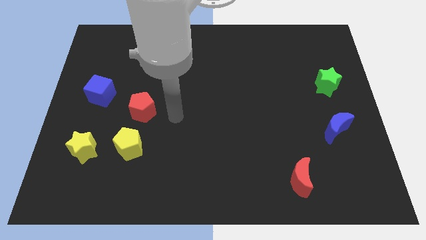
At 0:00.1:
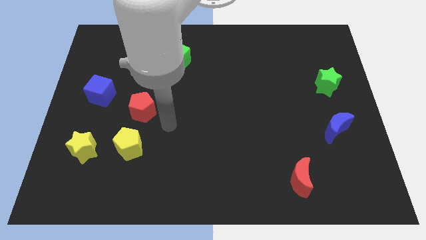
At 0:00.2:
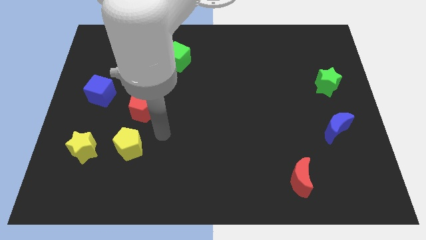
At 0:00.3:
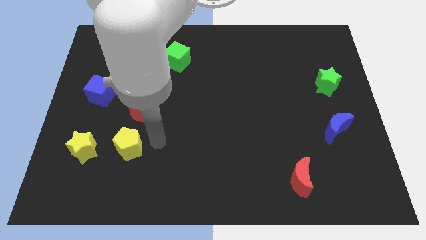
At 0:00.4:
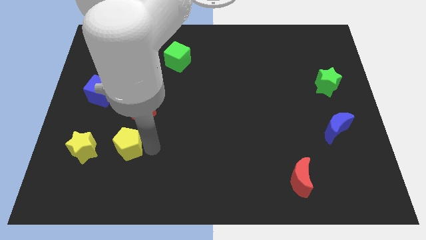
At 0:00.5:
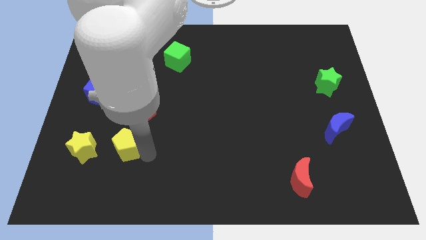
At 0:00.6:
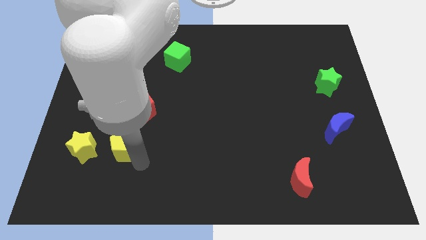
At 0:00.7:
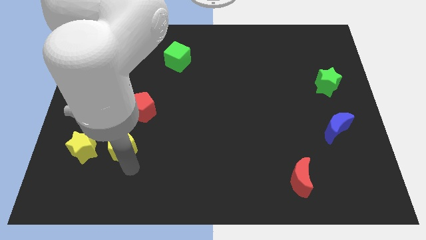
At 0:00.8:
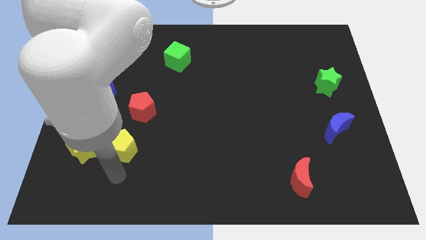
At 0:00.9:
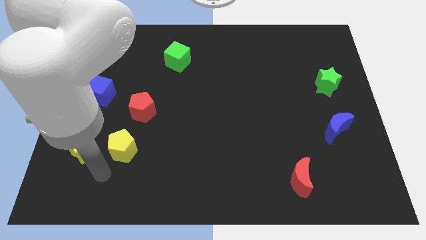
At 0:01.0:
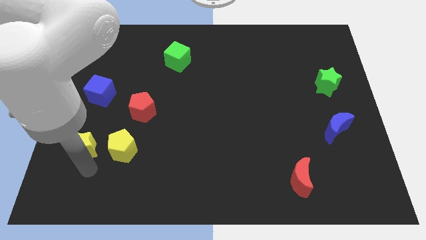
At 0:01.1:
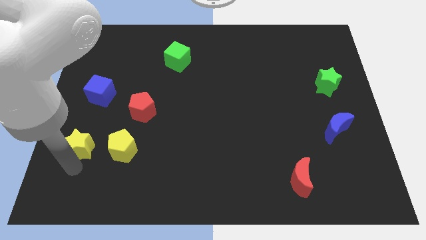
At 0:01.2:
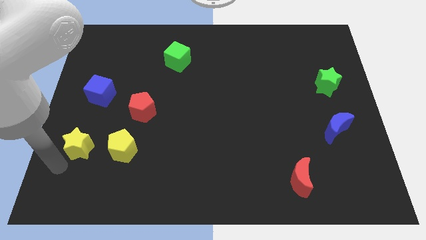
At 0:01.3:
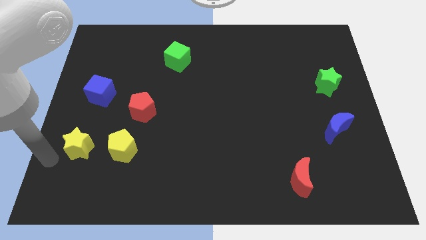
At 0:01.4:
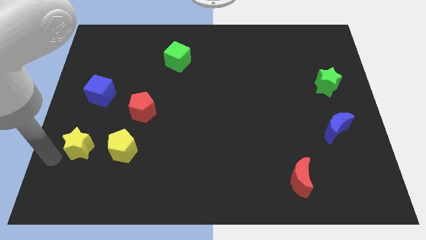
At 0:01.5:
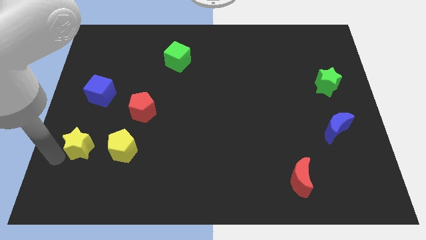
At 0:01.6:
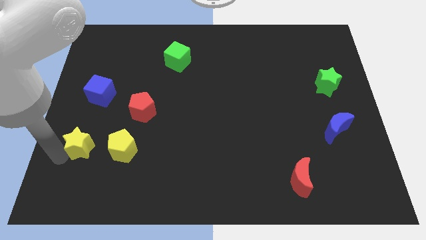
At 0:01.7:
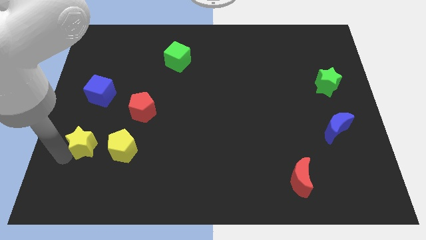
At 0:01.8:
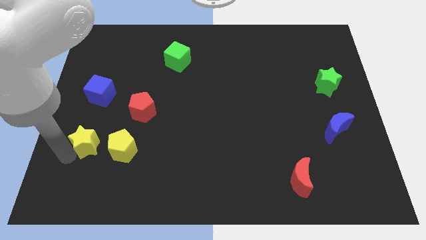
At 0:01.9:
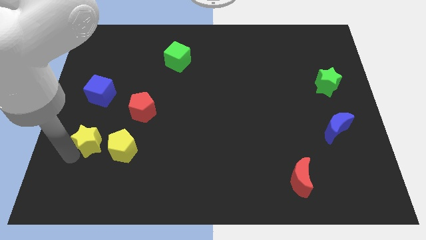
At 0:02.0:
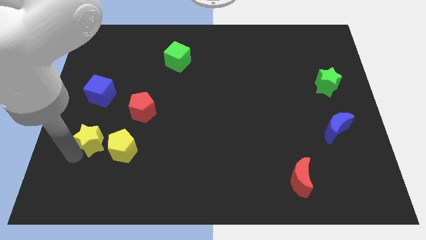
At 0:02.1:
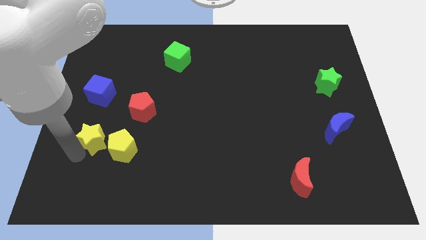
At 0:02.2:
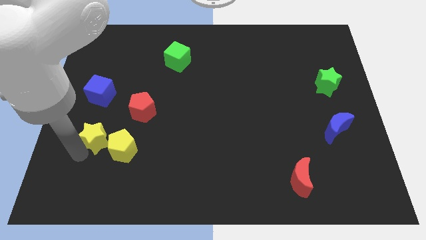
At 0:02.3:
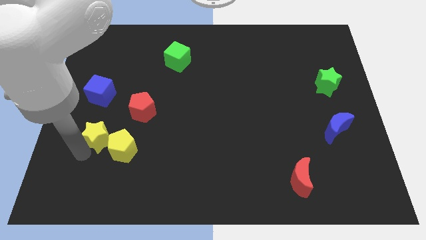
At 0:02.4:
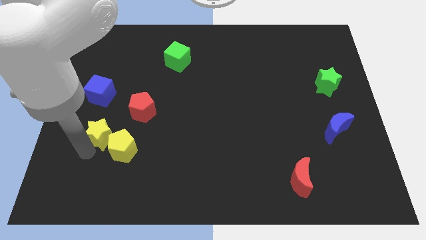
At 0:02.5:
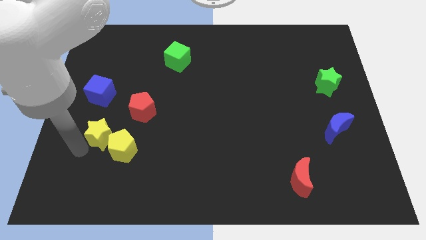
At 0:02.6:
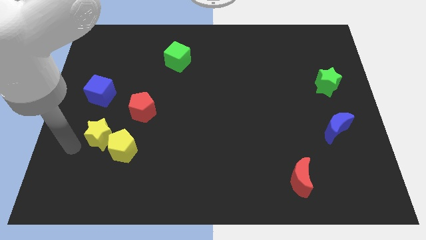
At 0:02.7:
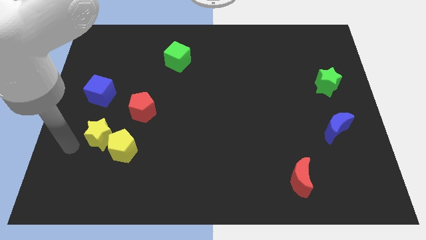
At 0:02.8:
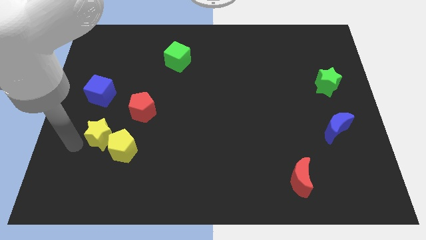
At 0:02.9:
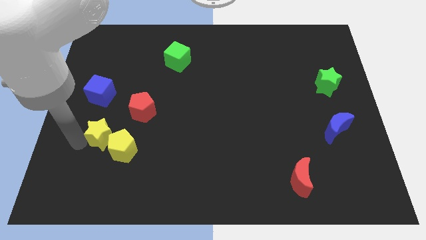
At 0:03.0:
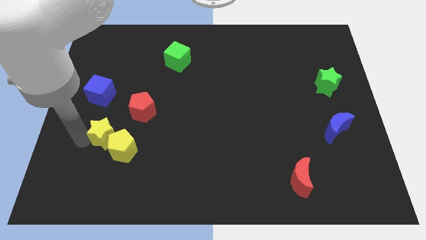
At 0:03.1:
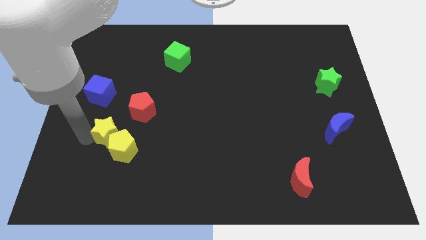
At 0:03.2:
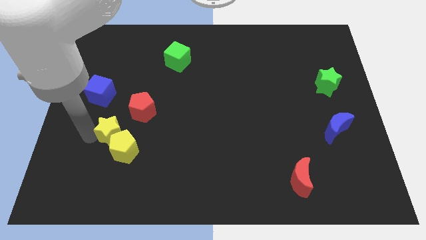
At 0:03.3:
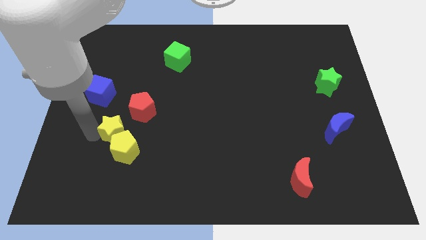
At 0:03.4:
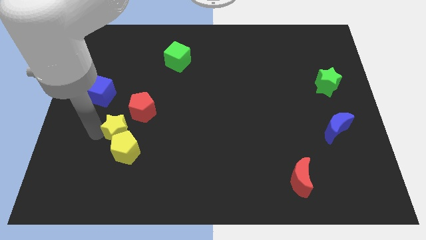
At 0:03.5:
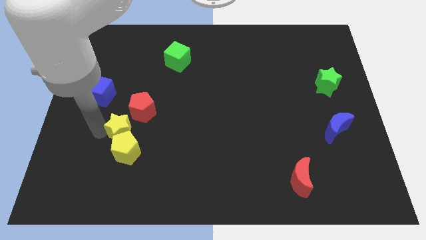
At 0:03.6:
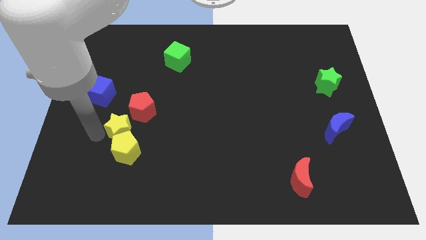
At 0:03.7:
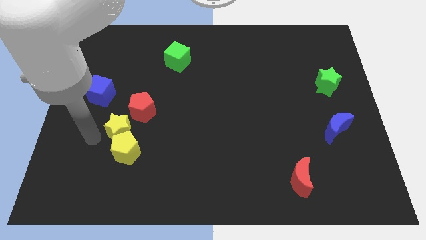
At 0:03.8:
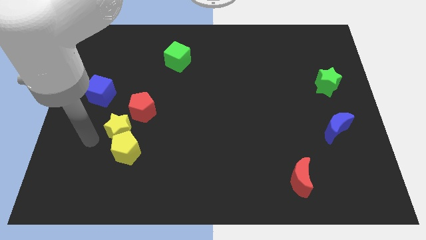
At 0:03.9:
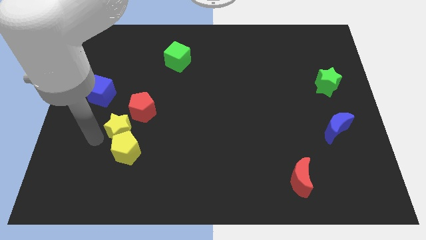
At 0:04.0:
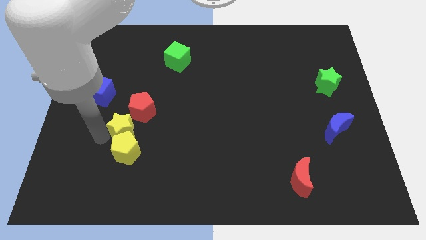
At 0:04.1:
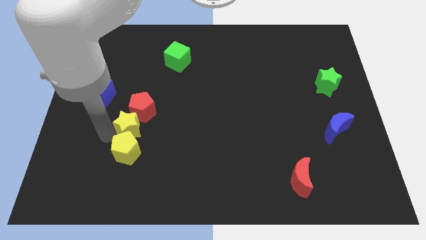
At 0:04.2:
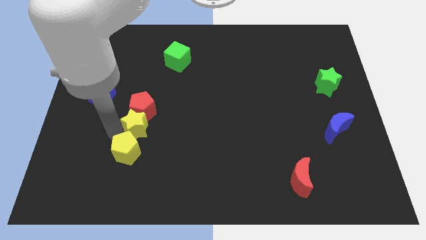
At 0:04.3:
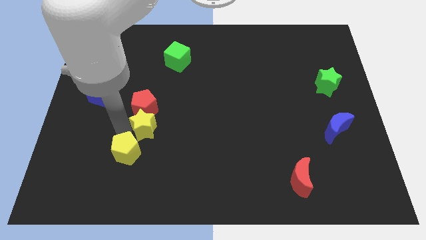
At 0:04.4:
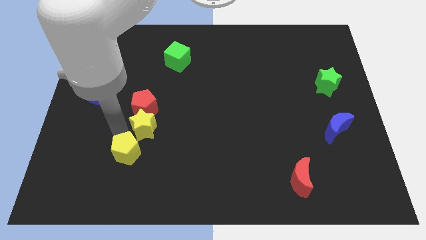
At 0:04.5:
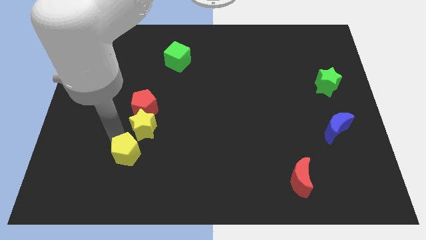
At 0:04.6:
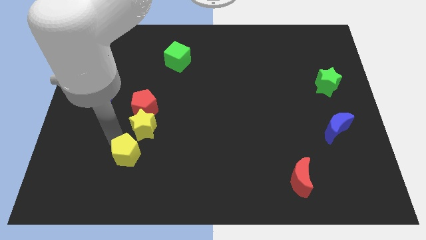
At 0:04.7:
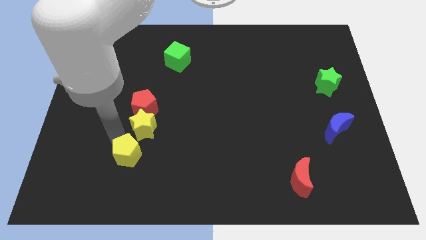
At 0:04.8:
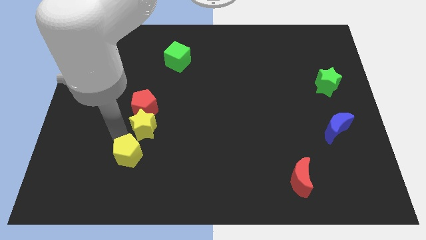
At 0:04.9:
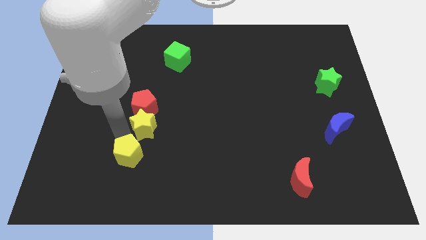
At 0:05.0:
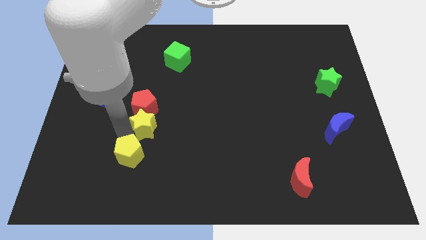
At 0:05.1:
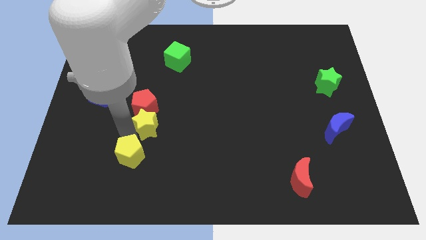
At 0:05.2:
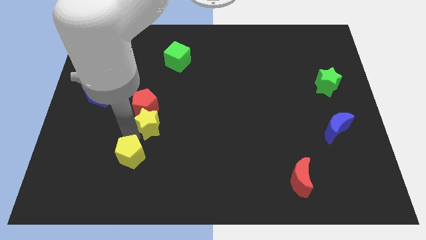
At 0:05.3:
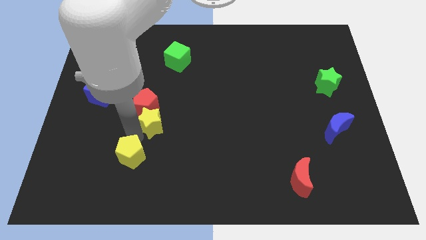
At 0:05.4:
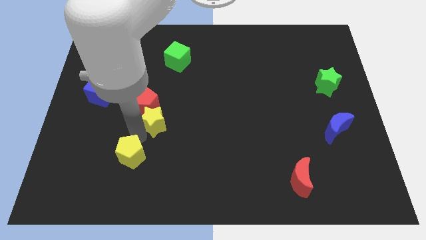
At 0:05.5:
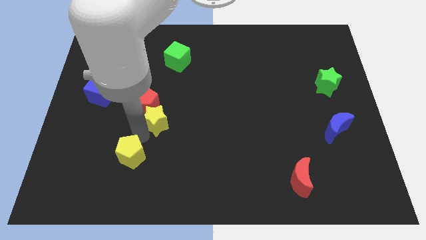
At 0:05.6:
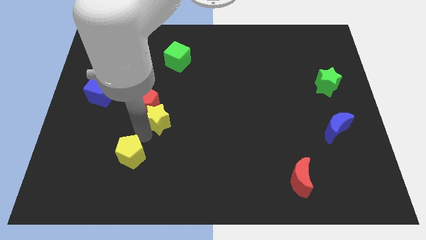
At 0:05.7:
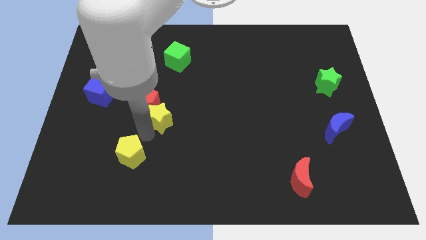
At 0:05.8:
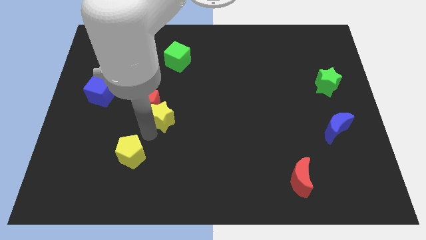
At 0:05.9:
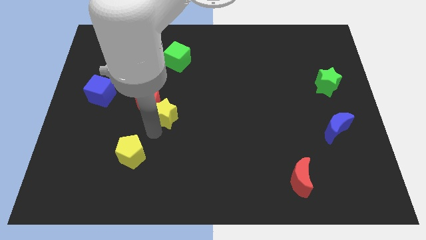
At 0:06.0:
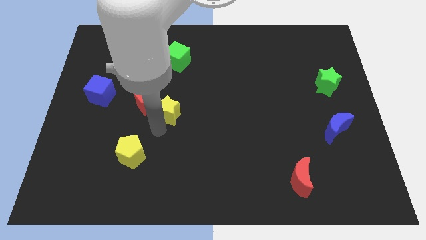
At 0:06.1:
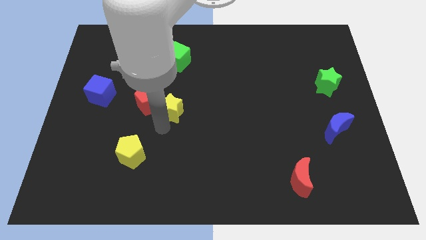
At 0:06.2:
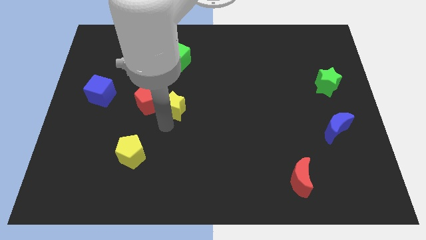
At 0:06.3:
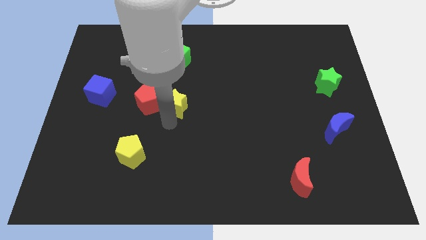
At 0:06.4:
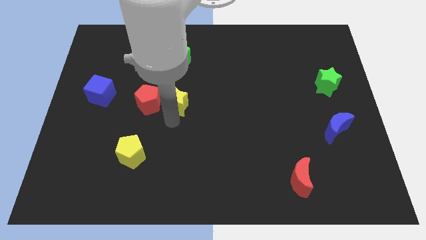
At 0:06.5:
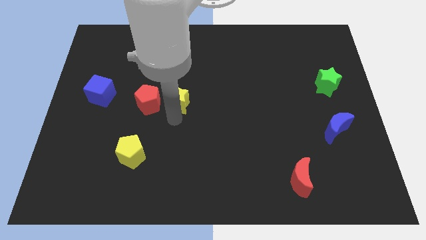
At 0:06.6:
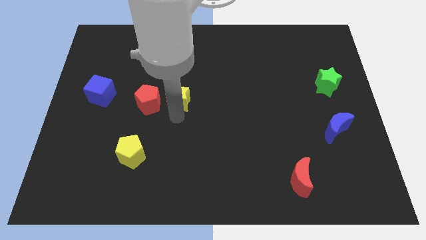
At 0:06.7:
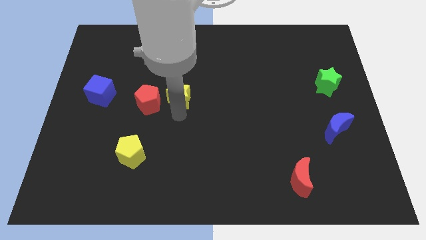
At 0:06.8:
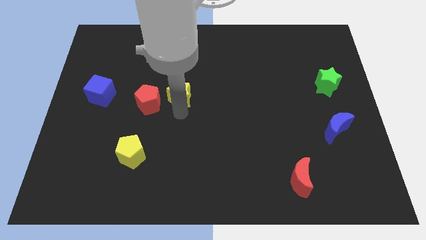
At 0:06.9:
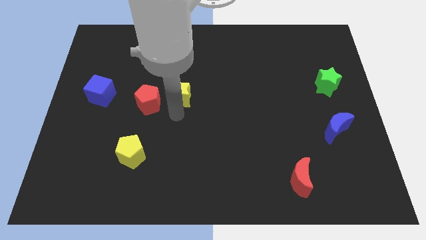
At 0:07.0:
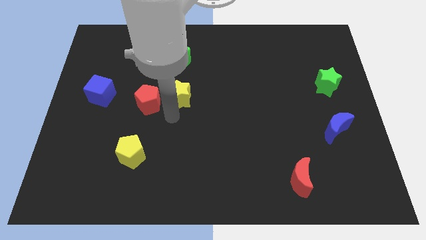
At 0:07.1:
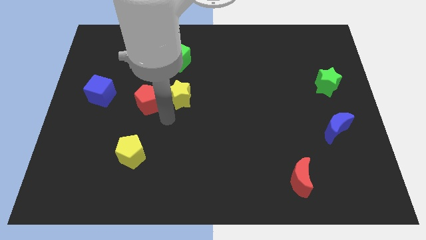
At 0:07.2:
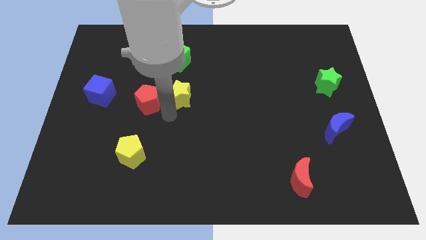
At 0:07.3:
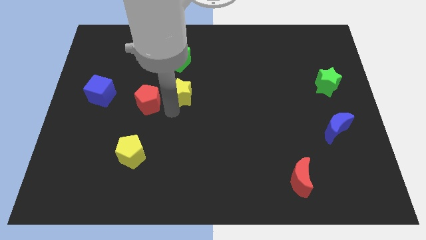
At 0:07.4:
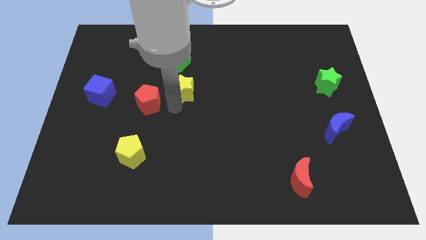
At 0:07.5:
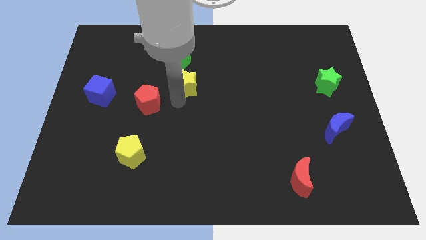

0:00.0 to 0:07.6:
move the yellow star to the bottom right of the green cube
